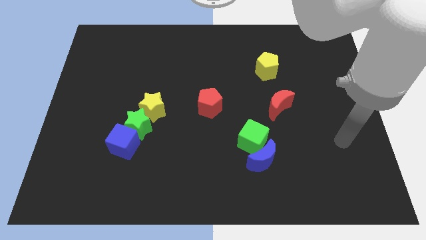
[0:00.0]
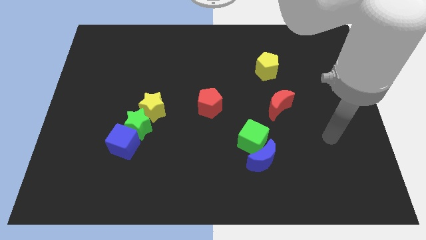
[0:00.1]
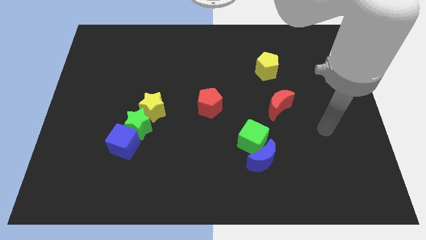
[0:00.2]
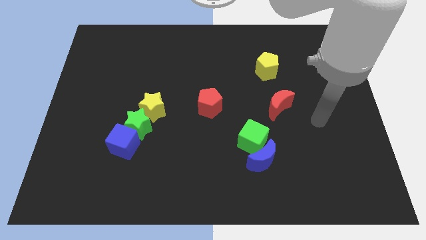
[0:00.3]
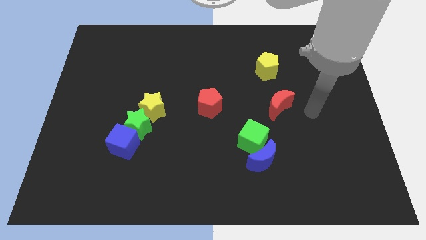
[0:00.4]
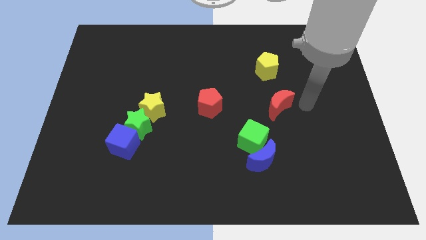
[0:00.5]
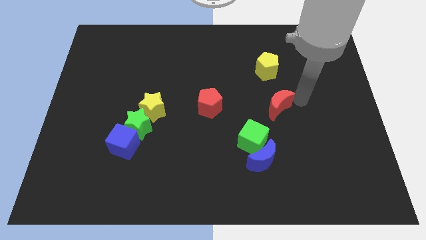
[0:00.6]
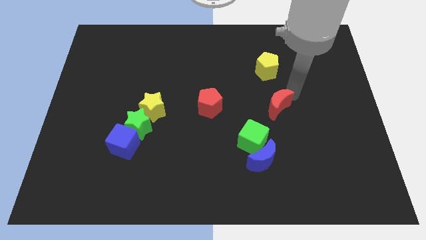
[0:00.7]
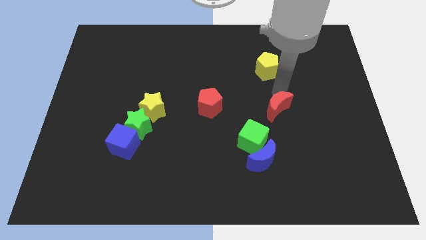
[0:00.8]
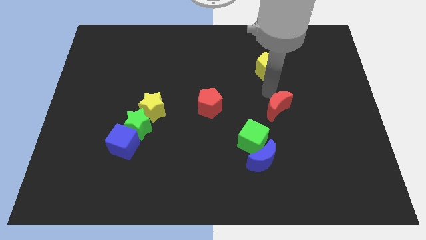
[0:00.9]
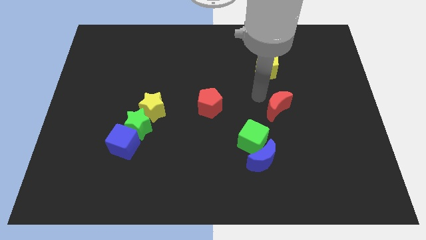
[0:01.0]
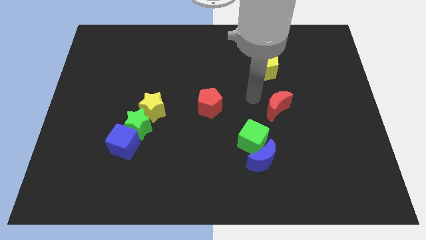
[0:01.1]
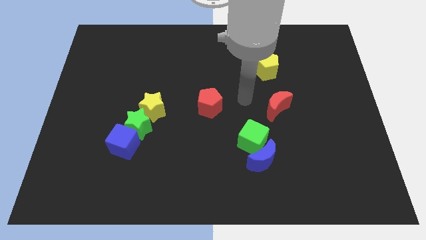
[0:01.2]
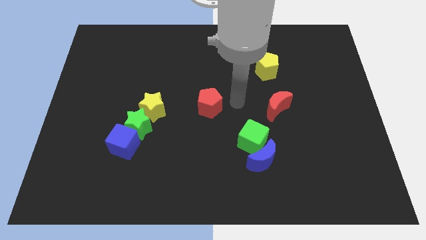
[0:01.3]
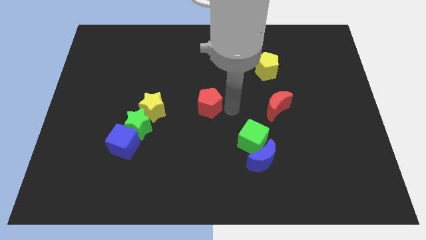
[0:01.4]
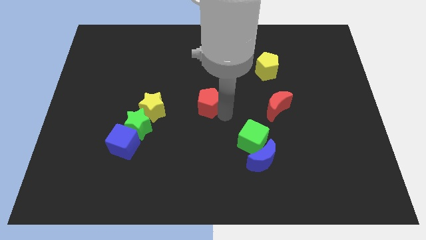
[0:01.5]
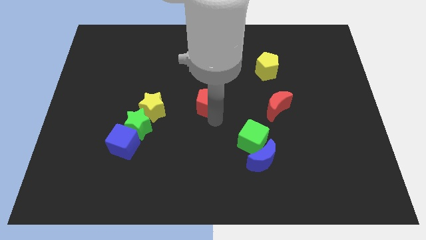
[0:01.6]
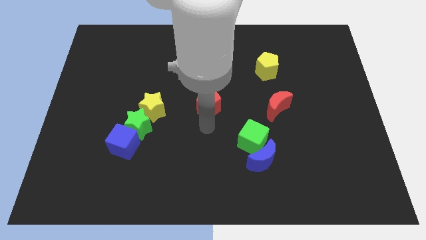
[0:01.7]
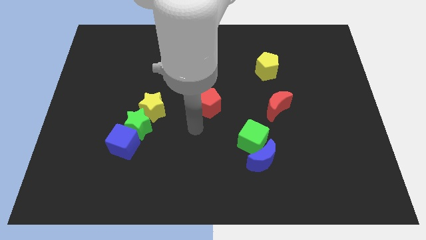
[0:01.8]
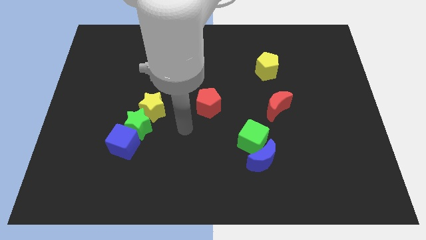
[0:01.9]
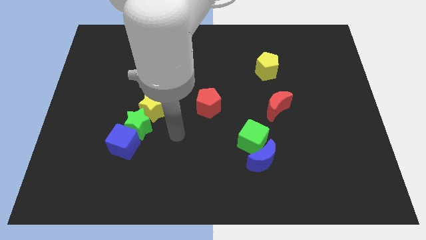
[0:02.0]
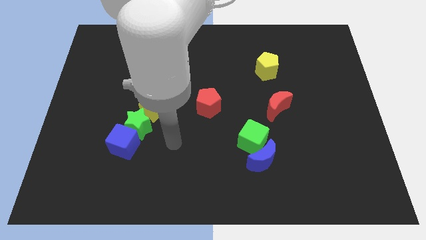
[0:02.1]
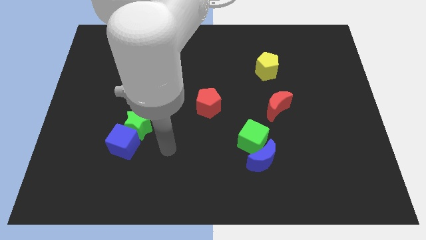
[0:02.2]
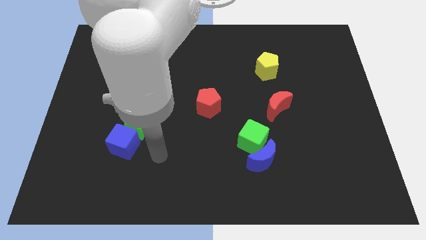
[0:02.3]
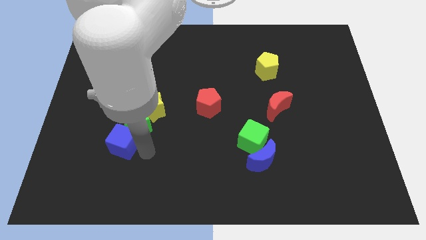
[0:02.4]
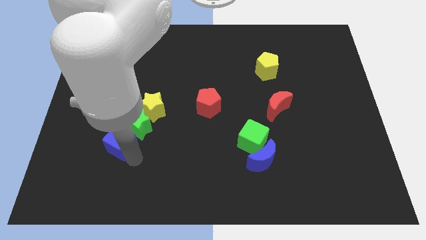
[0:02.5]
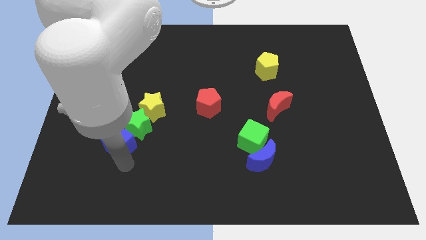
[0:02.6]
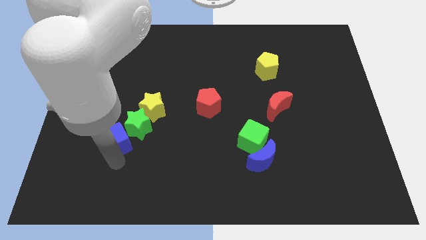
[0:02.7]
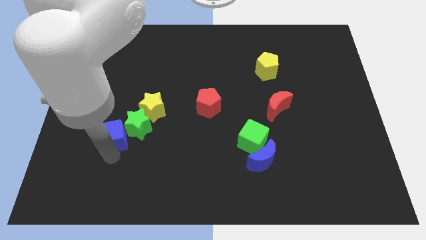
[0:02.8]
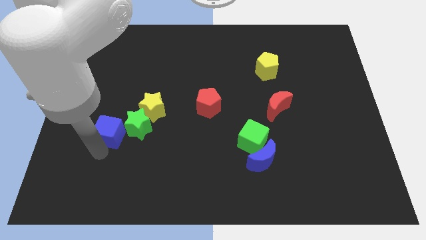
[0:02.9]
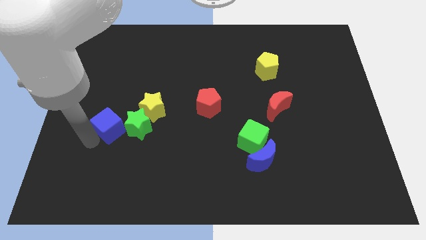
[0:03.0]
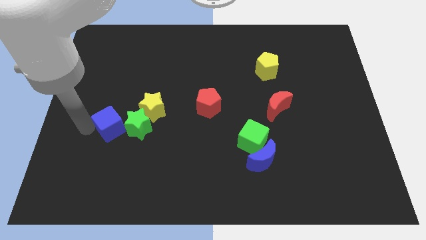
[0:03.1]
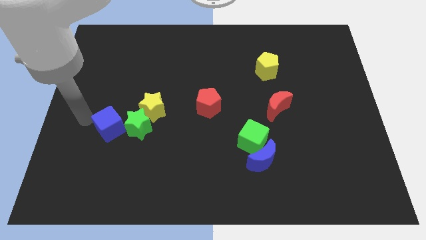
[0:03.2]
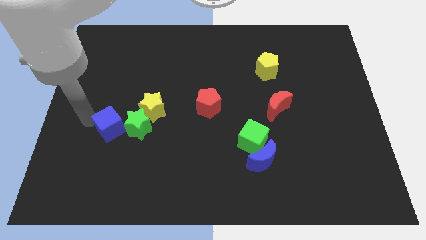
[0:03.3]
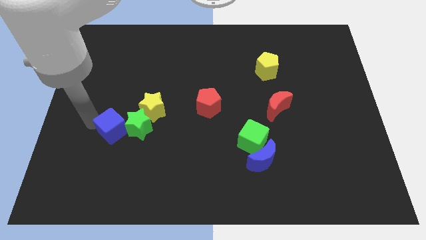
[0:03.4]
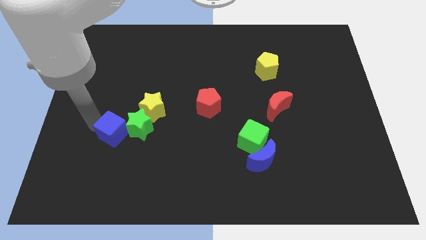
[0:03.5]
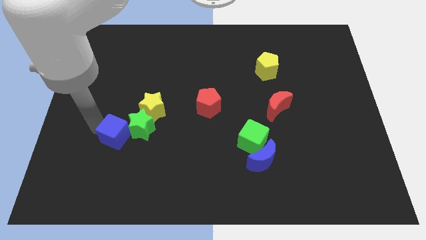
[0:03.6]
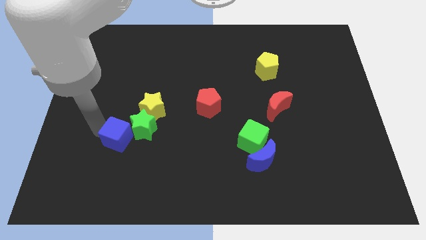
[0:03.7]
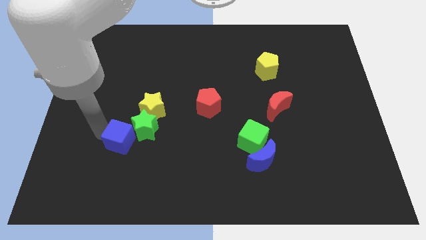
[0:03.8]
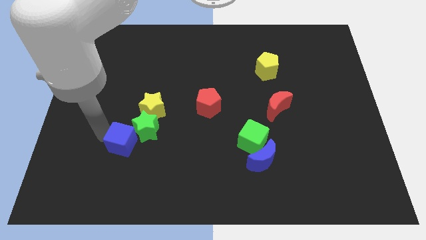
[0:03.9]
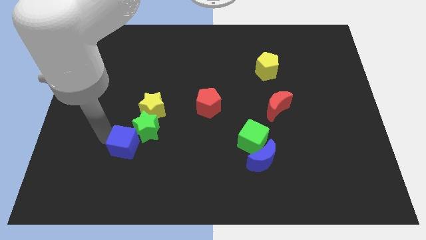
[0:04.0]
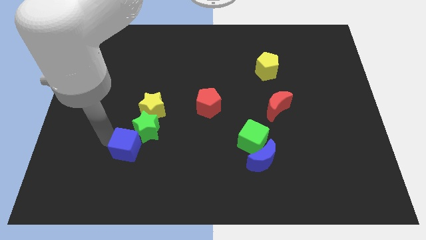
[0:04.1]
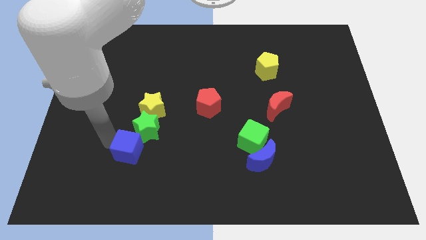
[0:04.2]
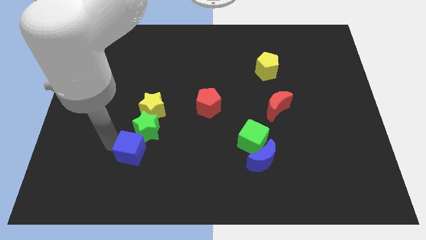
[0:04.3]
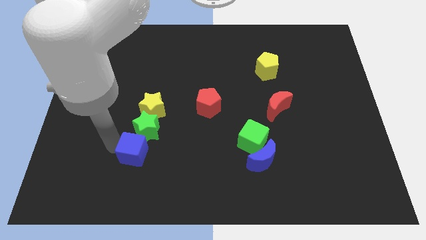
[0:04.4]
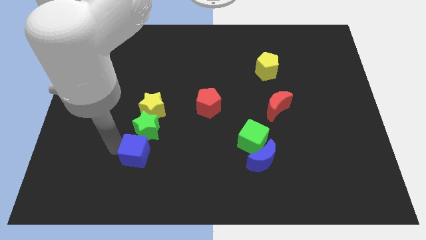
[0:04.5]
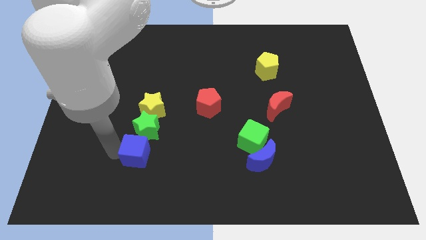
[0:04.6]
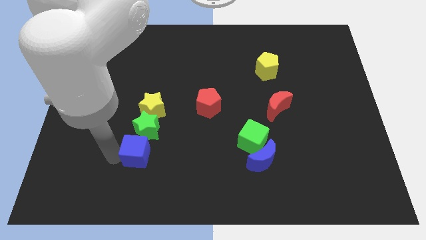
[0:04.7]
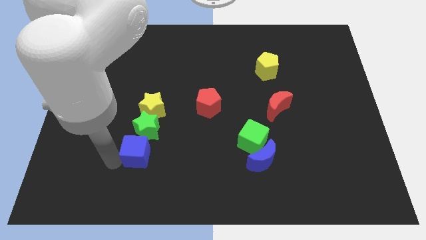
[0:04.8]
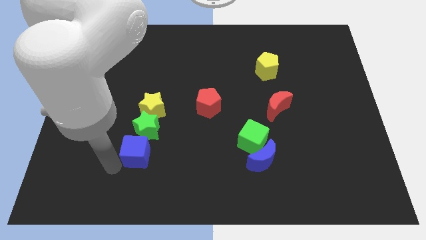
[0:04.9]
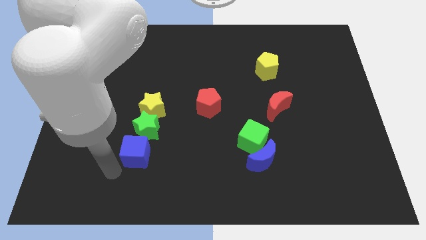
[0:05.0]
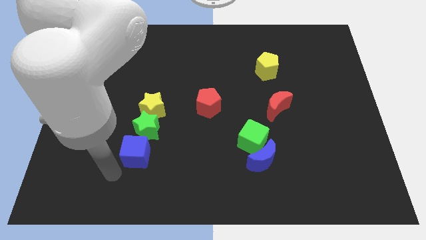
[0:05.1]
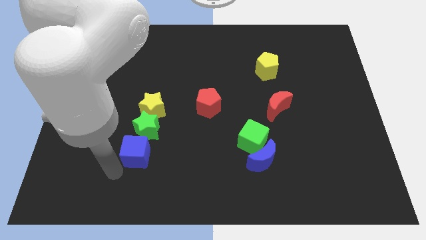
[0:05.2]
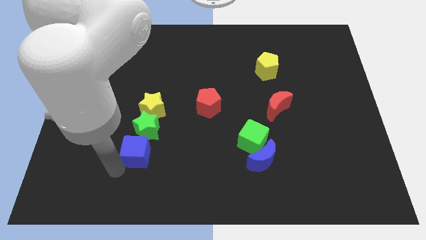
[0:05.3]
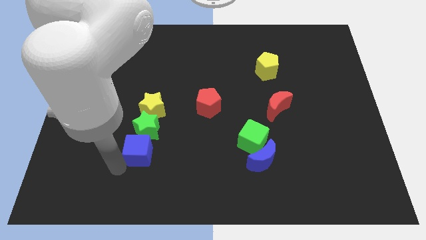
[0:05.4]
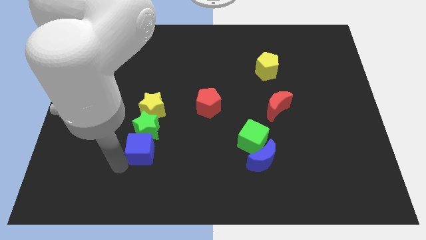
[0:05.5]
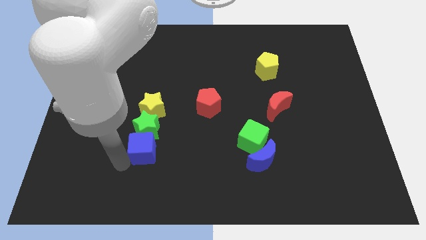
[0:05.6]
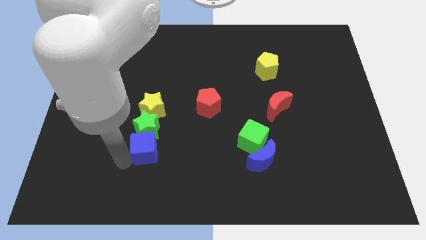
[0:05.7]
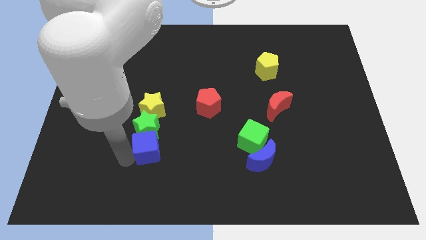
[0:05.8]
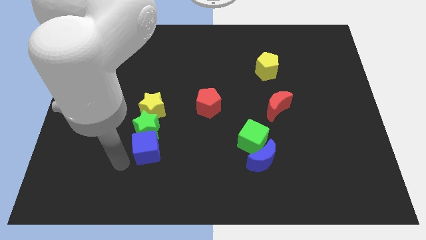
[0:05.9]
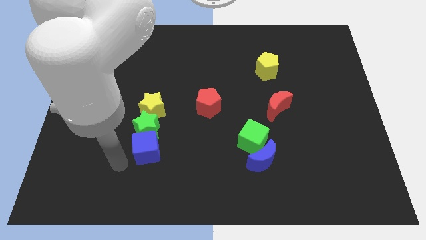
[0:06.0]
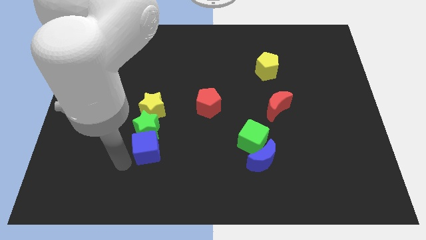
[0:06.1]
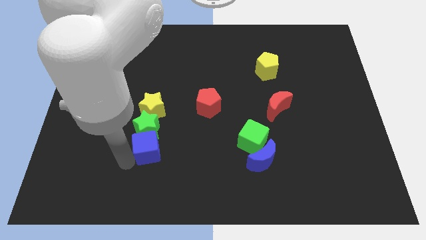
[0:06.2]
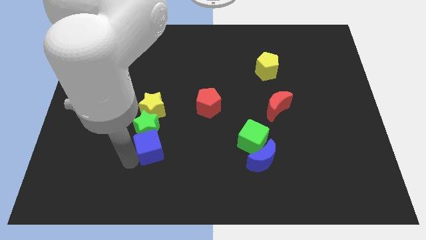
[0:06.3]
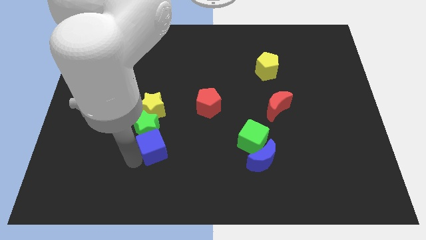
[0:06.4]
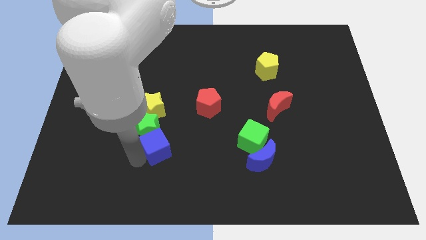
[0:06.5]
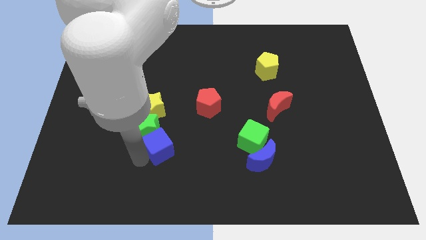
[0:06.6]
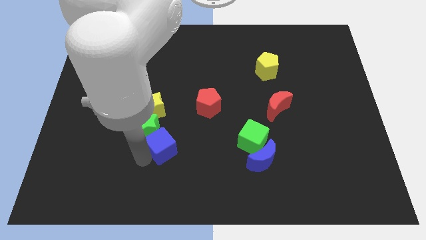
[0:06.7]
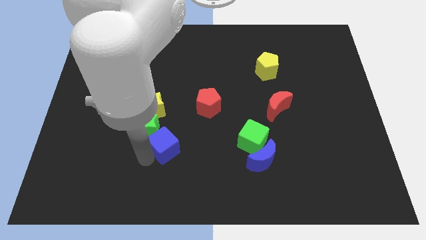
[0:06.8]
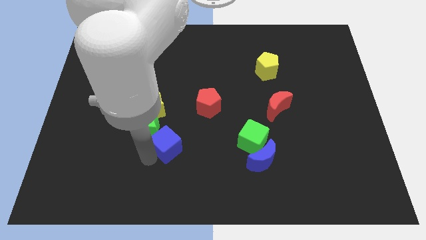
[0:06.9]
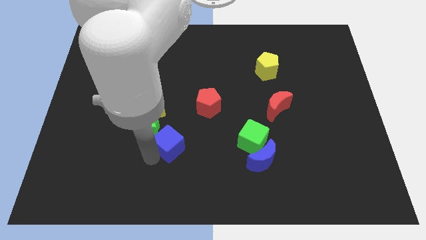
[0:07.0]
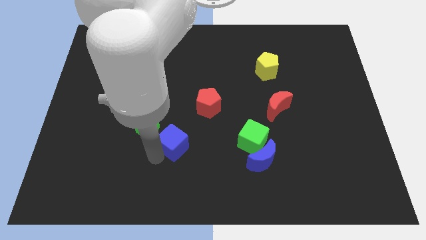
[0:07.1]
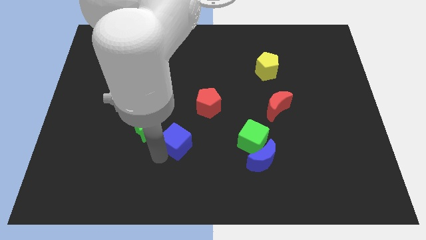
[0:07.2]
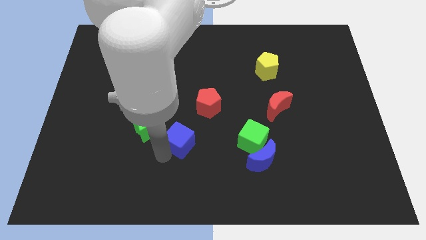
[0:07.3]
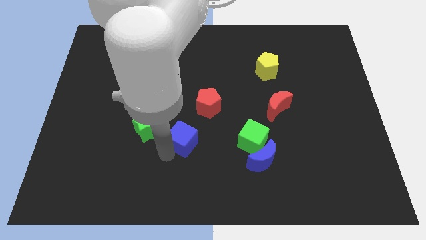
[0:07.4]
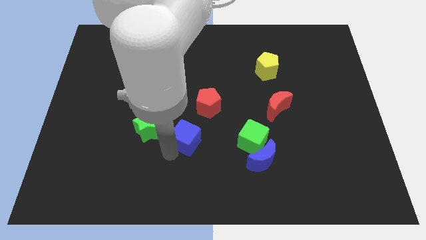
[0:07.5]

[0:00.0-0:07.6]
slightly slide the blue cube upwards and then to the right

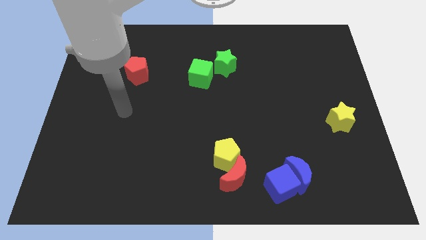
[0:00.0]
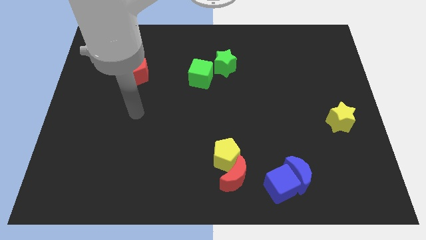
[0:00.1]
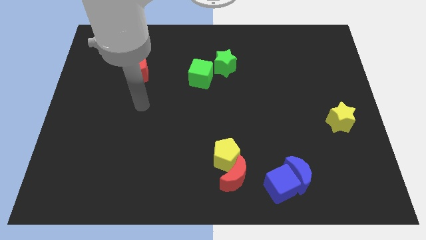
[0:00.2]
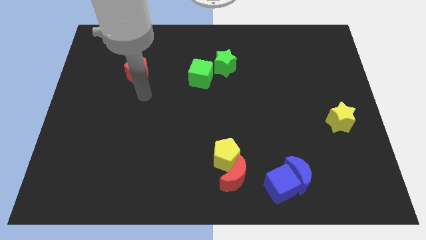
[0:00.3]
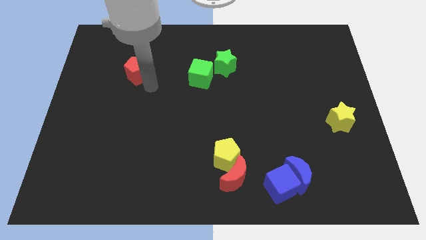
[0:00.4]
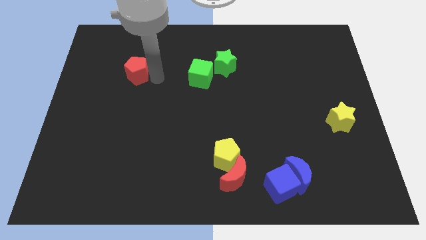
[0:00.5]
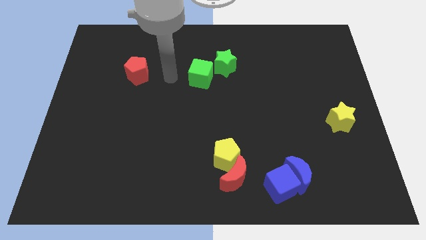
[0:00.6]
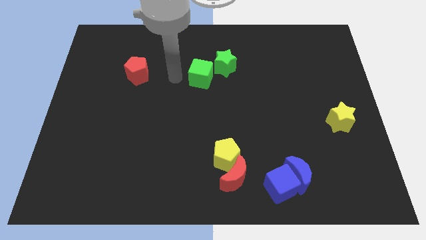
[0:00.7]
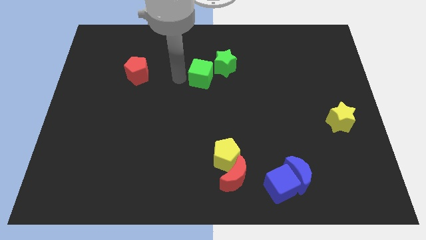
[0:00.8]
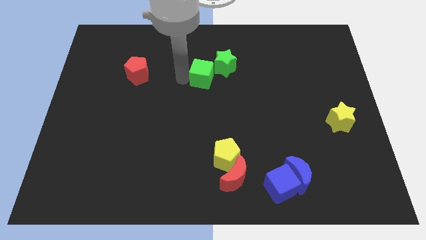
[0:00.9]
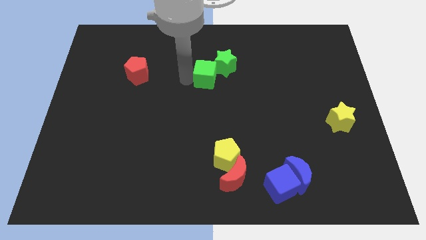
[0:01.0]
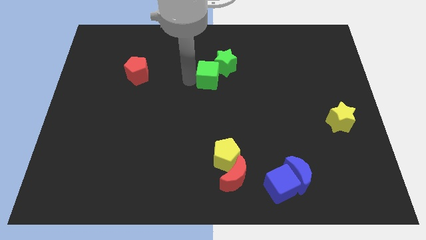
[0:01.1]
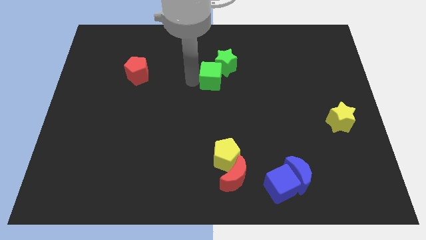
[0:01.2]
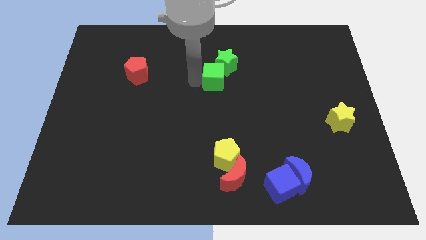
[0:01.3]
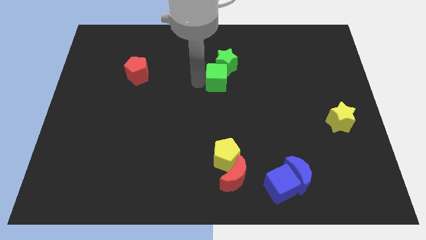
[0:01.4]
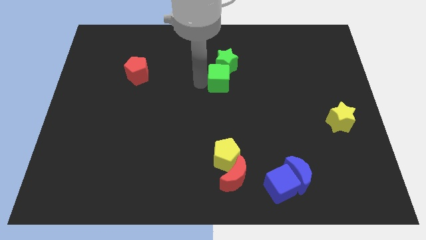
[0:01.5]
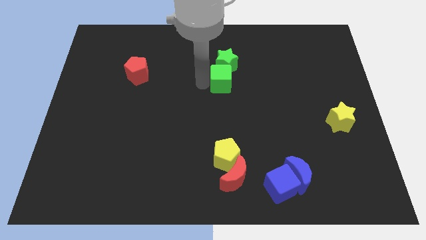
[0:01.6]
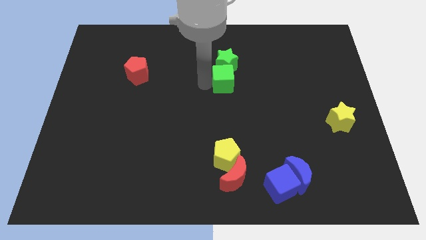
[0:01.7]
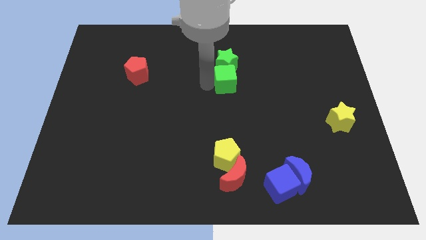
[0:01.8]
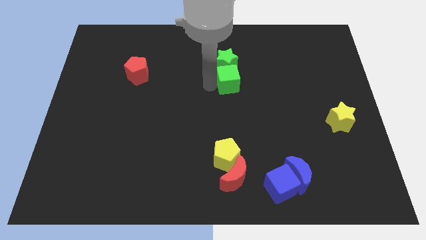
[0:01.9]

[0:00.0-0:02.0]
slightly push the green cube to the right
